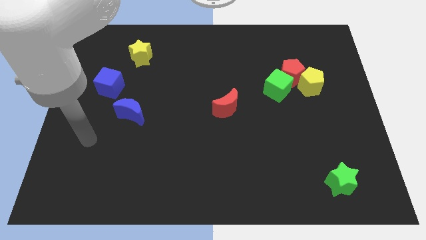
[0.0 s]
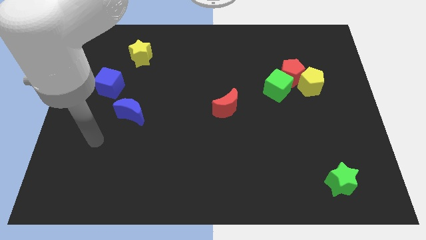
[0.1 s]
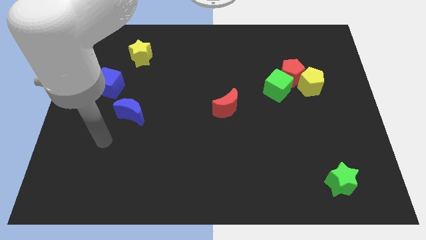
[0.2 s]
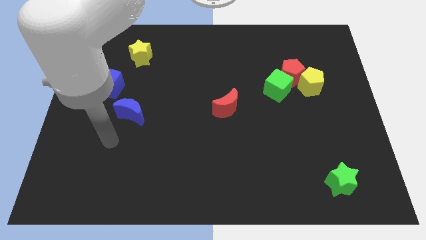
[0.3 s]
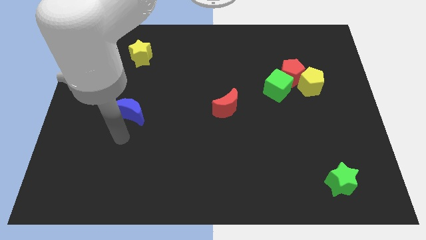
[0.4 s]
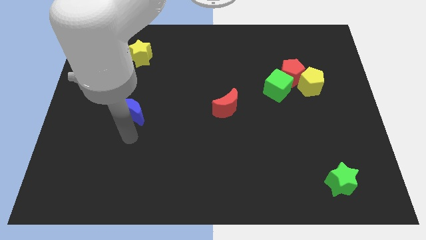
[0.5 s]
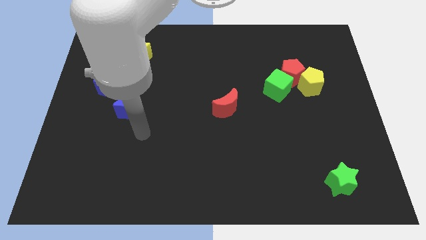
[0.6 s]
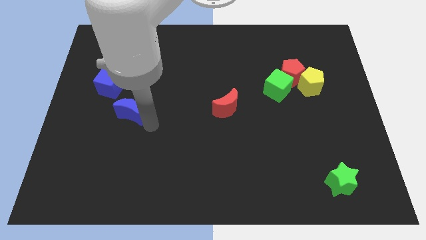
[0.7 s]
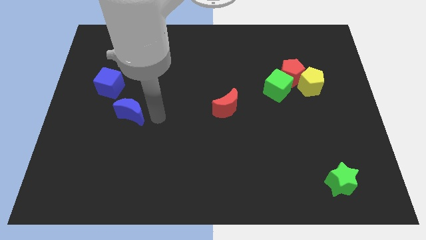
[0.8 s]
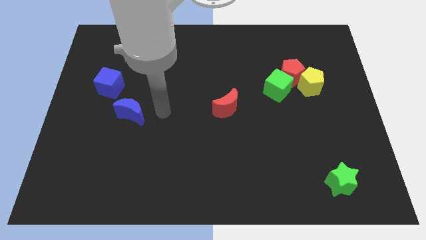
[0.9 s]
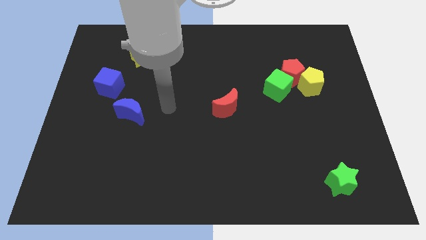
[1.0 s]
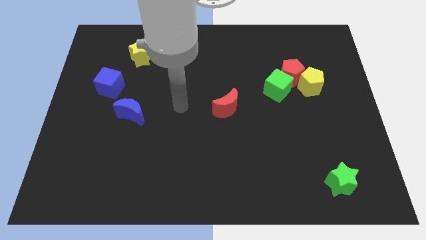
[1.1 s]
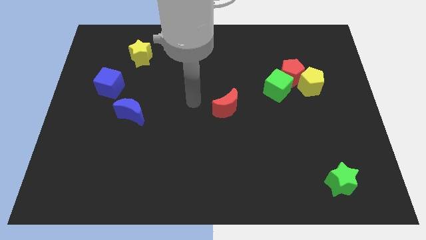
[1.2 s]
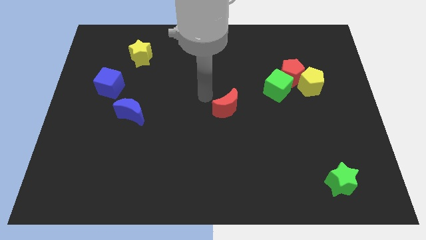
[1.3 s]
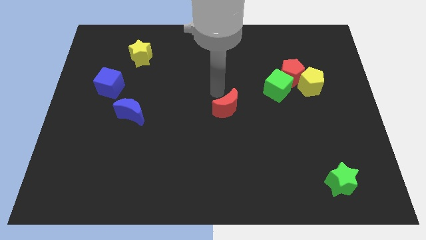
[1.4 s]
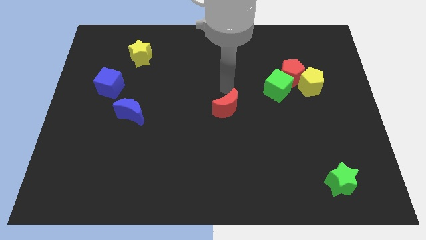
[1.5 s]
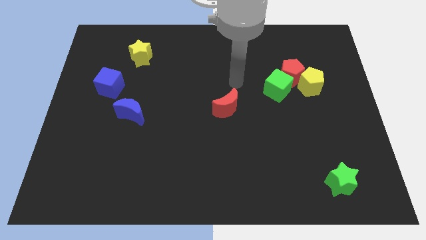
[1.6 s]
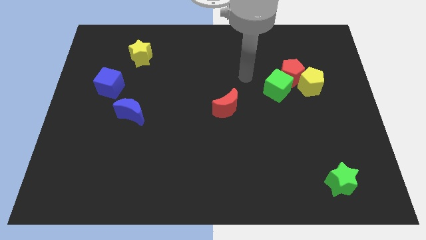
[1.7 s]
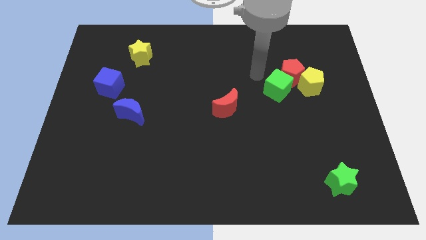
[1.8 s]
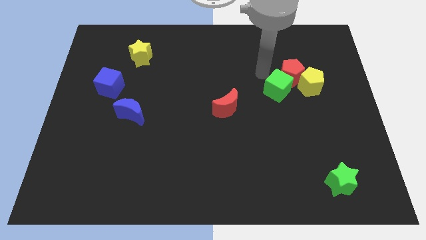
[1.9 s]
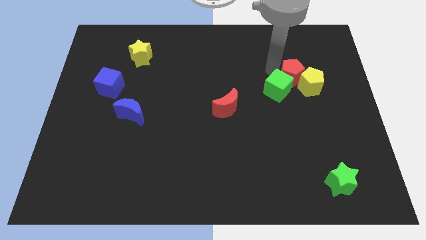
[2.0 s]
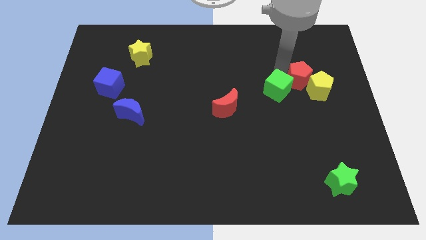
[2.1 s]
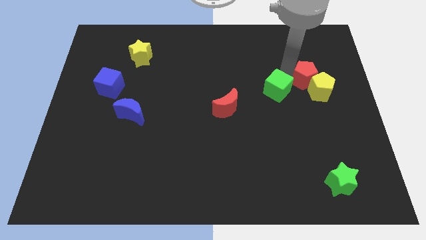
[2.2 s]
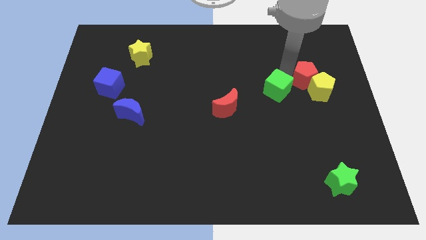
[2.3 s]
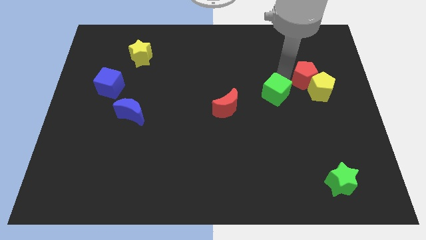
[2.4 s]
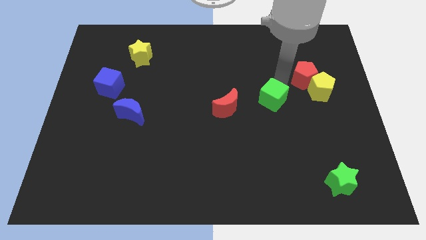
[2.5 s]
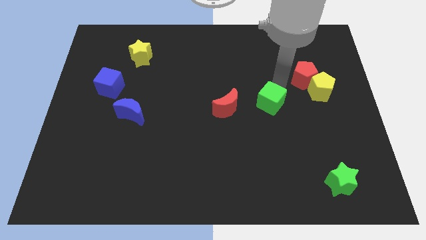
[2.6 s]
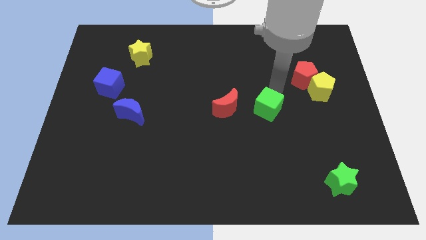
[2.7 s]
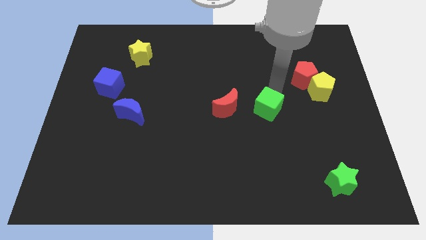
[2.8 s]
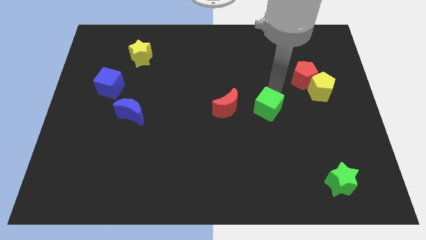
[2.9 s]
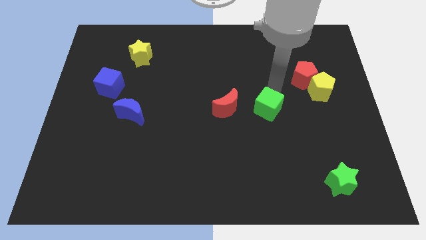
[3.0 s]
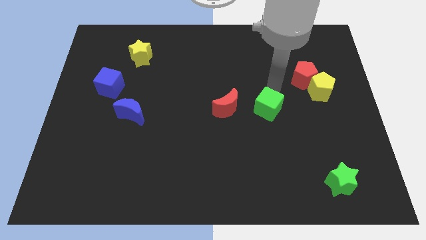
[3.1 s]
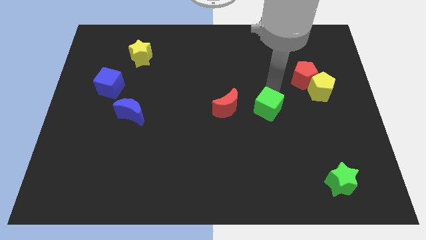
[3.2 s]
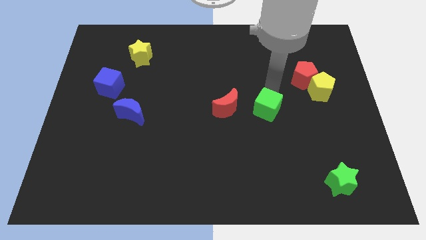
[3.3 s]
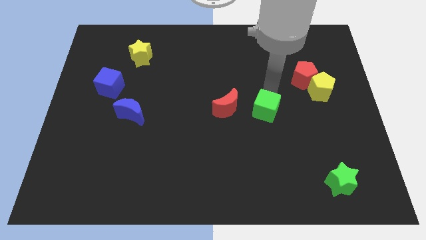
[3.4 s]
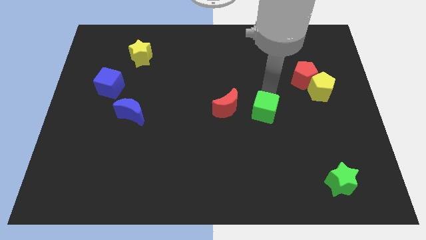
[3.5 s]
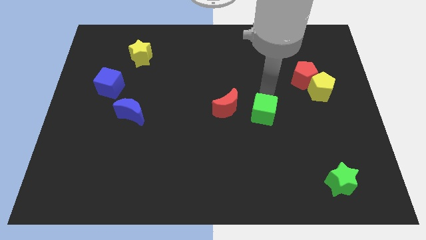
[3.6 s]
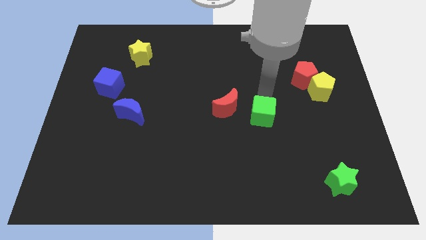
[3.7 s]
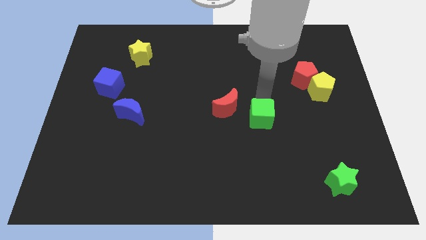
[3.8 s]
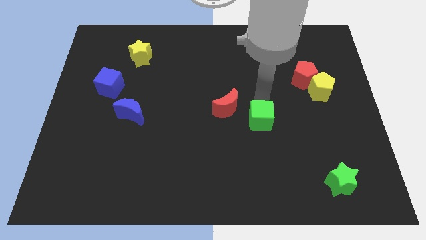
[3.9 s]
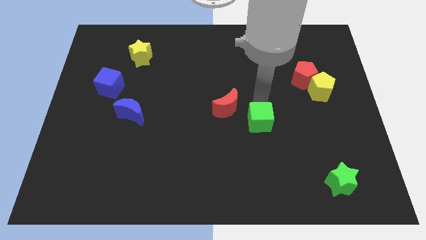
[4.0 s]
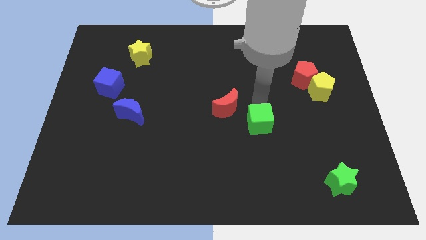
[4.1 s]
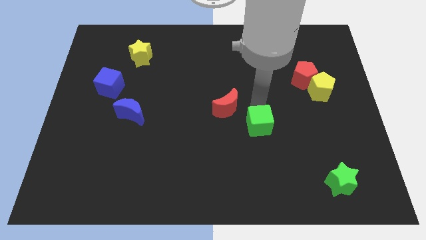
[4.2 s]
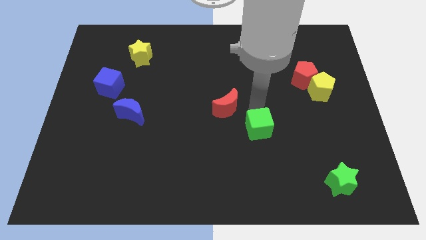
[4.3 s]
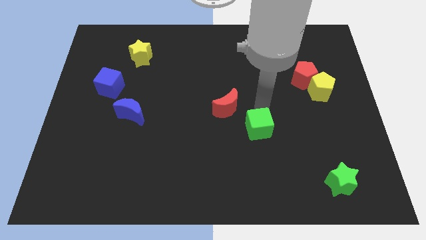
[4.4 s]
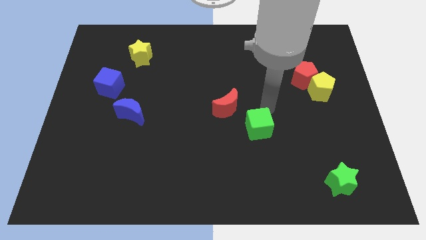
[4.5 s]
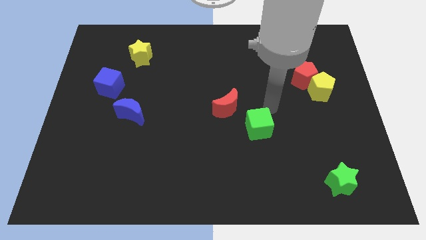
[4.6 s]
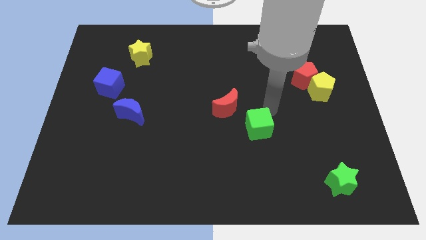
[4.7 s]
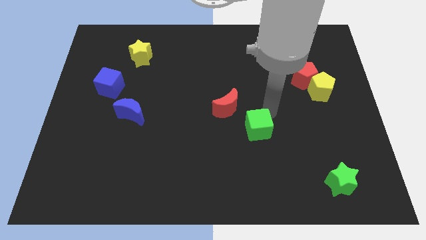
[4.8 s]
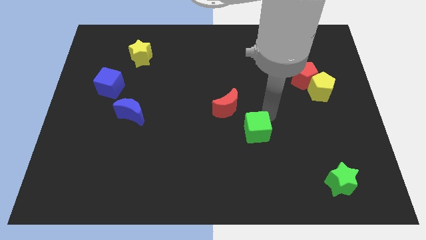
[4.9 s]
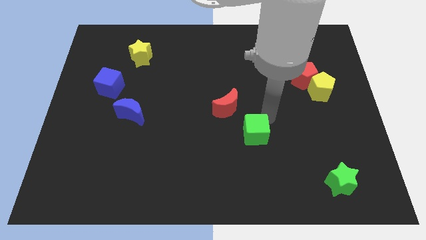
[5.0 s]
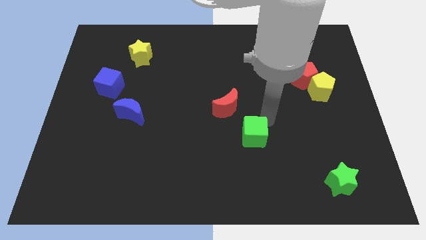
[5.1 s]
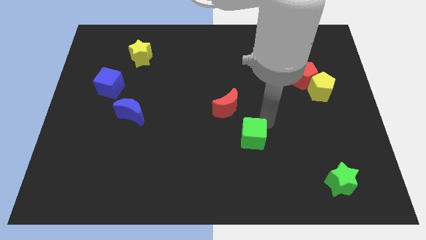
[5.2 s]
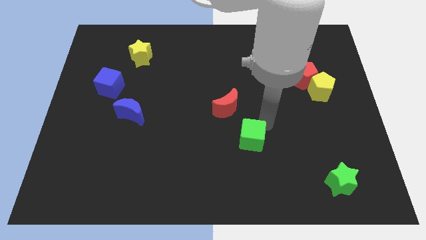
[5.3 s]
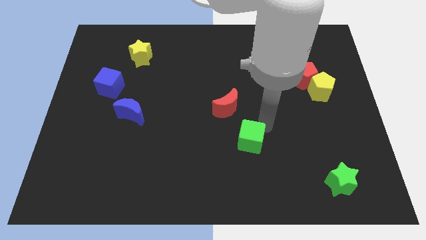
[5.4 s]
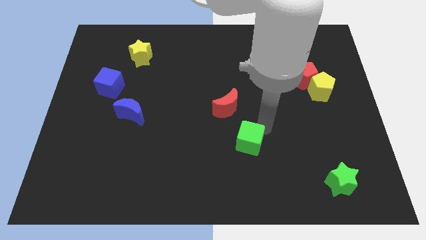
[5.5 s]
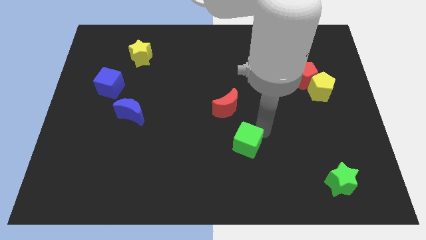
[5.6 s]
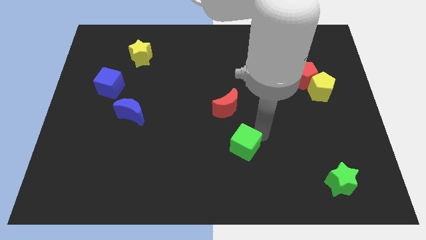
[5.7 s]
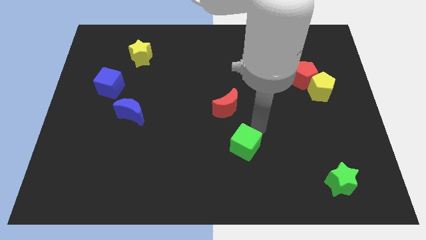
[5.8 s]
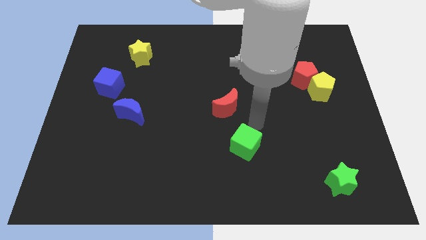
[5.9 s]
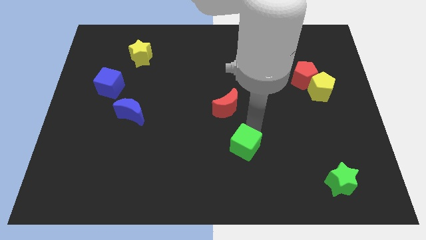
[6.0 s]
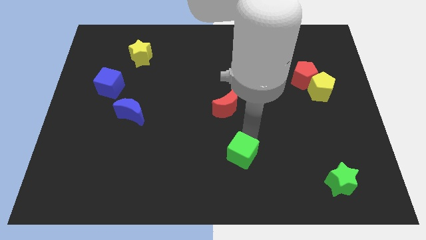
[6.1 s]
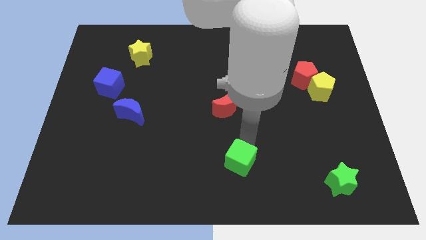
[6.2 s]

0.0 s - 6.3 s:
put the green cube to the bottom
